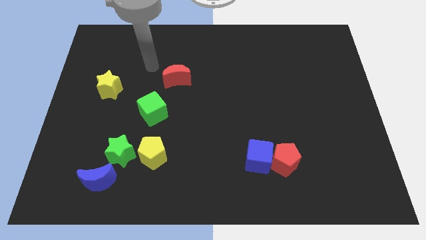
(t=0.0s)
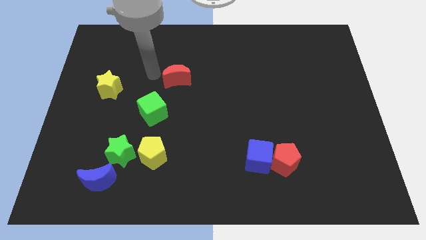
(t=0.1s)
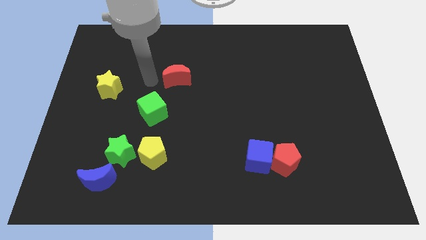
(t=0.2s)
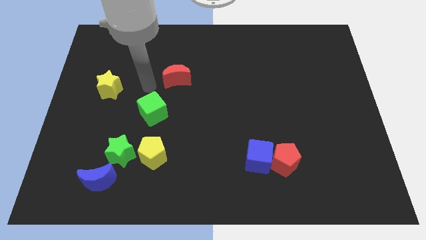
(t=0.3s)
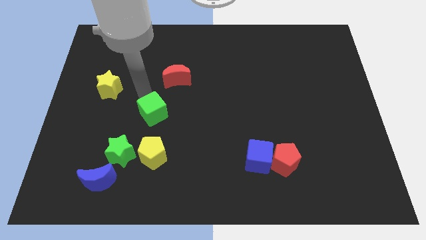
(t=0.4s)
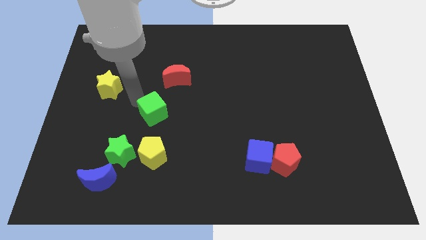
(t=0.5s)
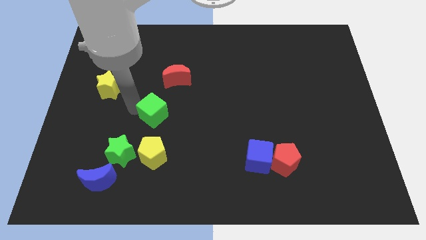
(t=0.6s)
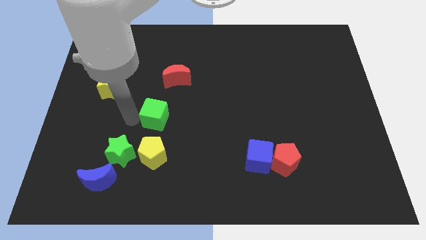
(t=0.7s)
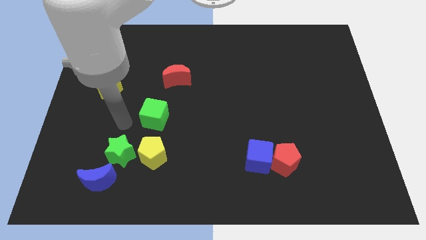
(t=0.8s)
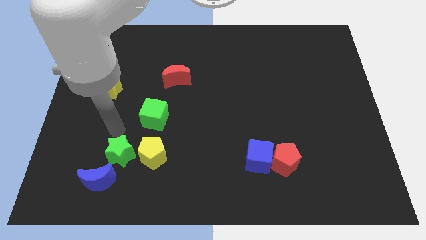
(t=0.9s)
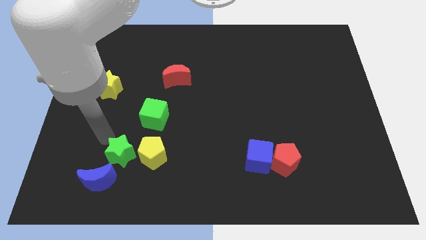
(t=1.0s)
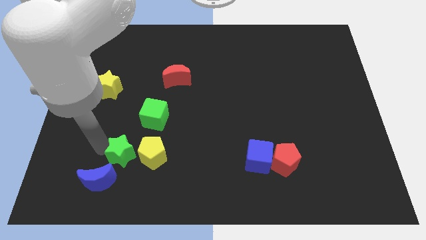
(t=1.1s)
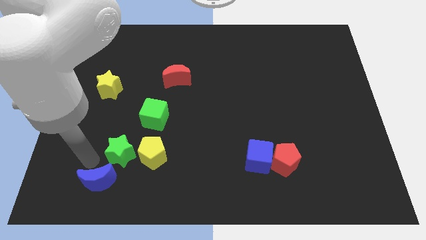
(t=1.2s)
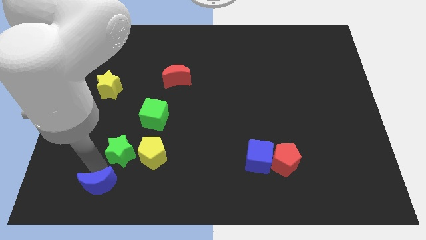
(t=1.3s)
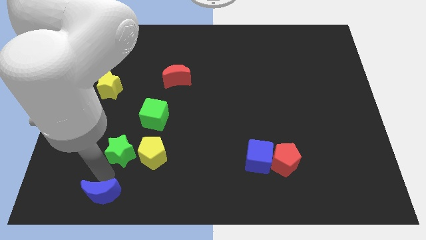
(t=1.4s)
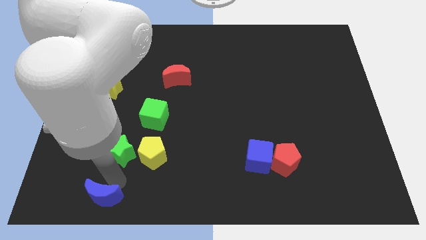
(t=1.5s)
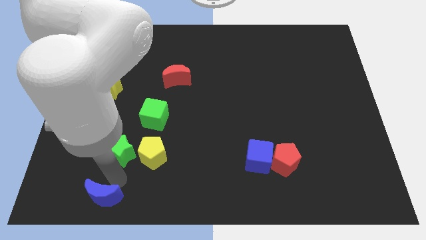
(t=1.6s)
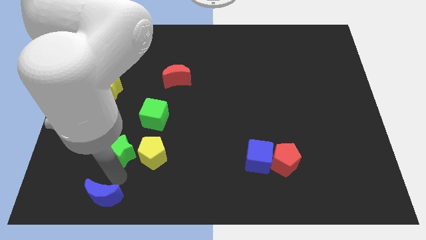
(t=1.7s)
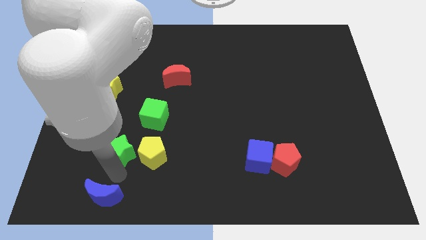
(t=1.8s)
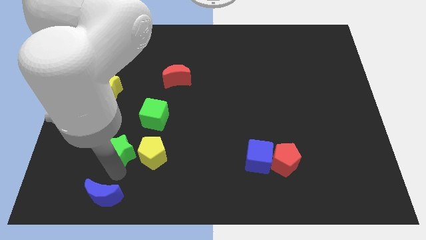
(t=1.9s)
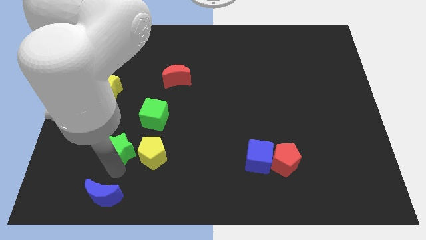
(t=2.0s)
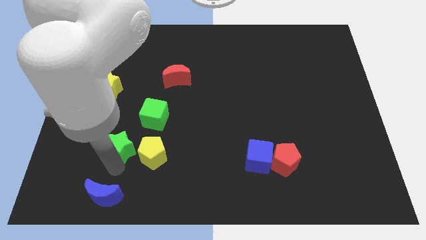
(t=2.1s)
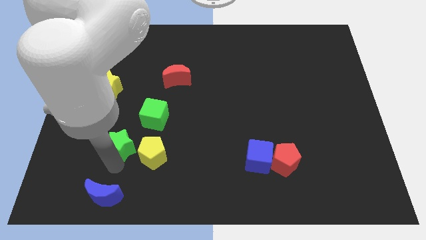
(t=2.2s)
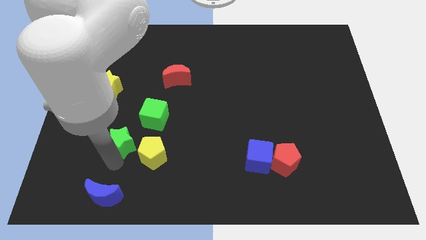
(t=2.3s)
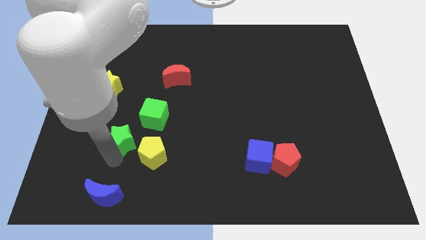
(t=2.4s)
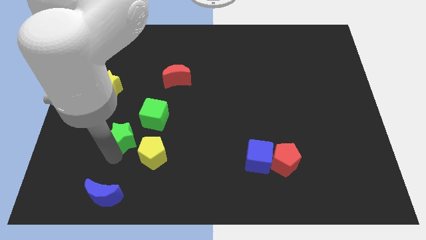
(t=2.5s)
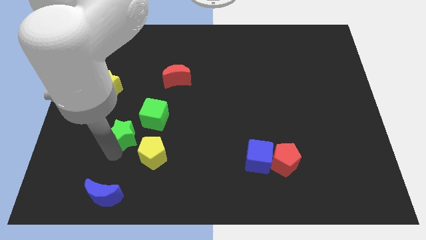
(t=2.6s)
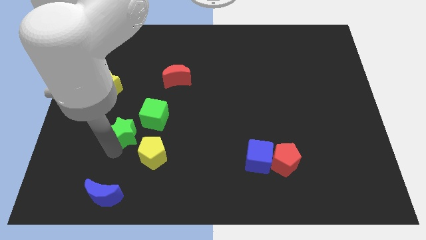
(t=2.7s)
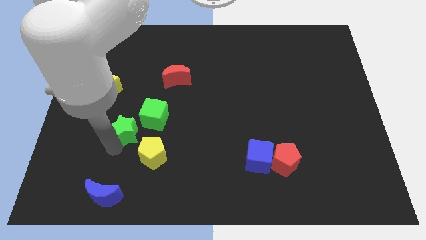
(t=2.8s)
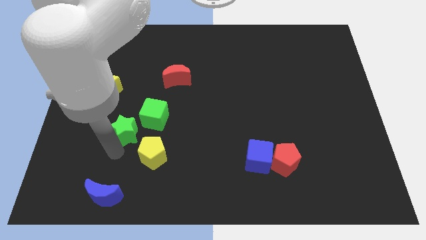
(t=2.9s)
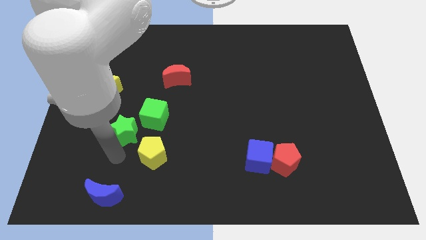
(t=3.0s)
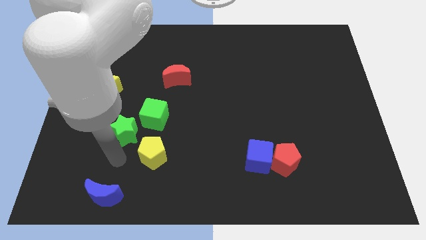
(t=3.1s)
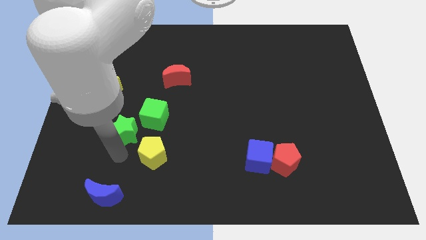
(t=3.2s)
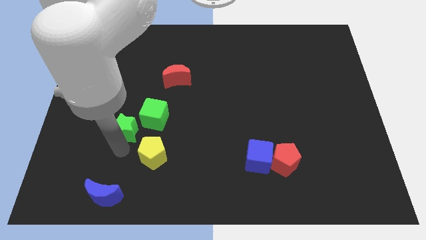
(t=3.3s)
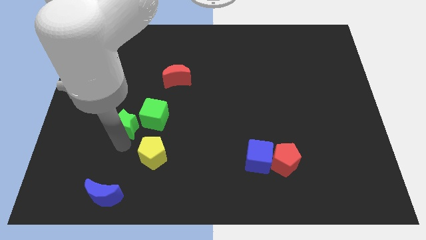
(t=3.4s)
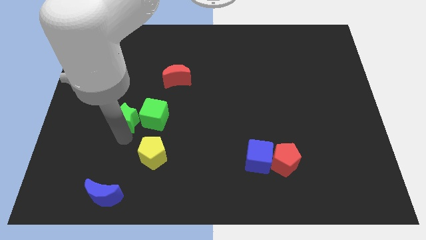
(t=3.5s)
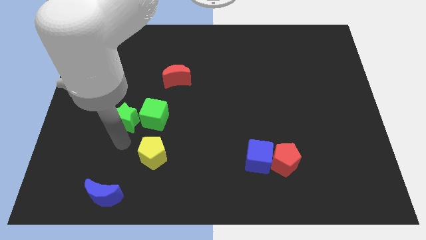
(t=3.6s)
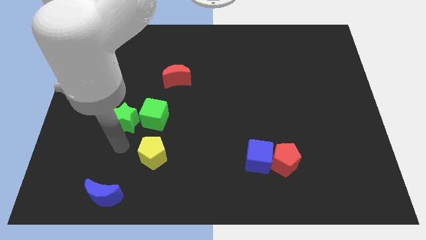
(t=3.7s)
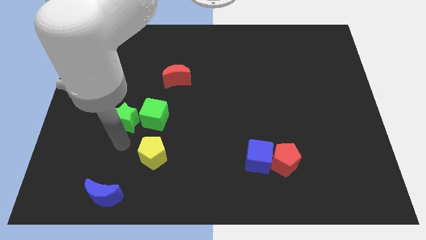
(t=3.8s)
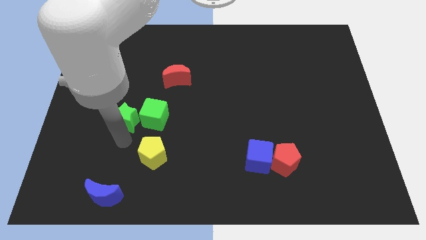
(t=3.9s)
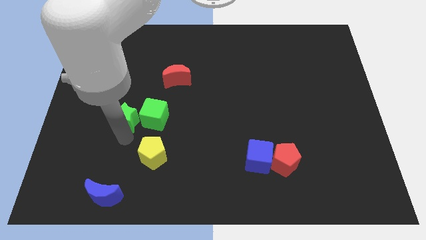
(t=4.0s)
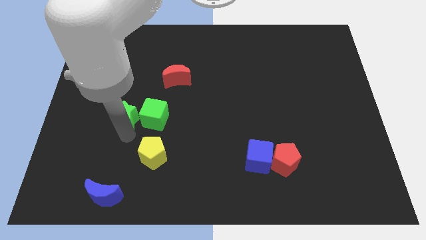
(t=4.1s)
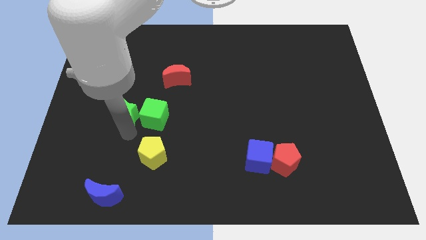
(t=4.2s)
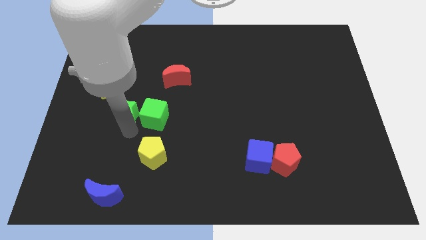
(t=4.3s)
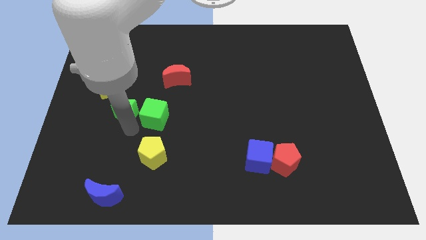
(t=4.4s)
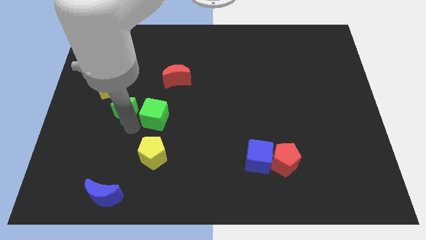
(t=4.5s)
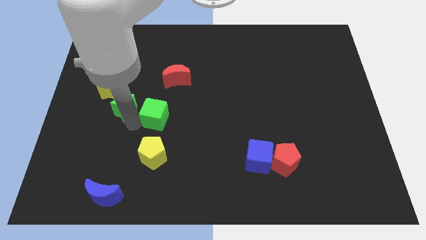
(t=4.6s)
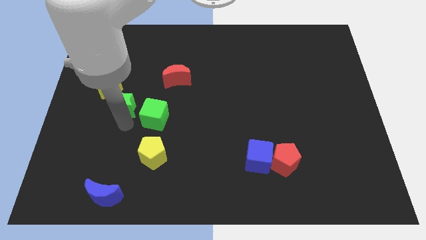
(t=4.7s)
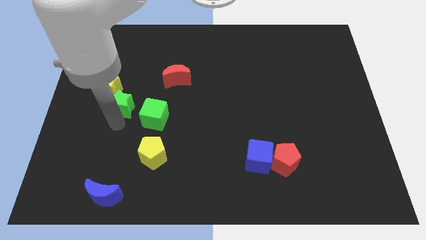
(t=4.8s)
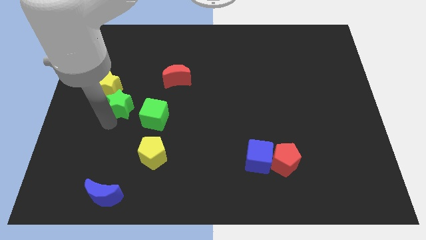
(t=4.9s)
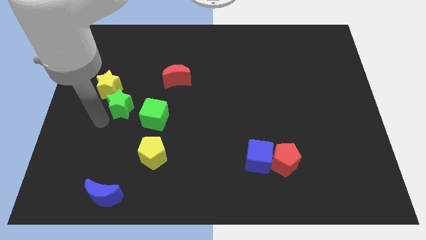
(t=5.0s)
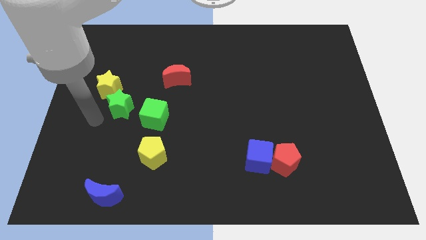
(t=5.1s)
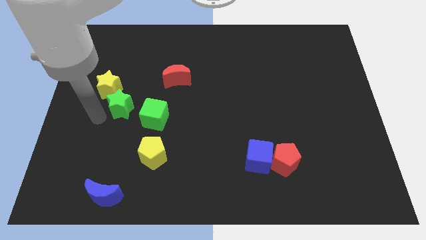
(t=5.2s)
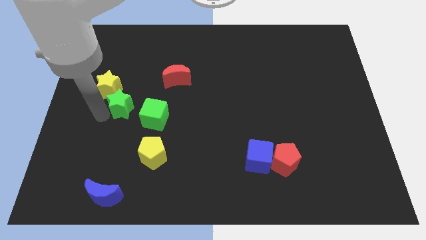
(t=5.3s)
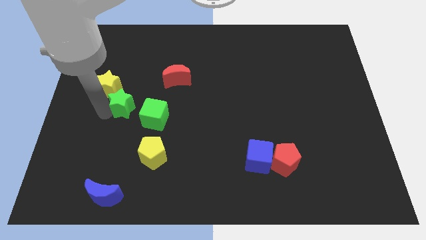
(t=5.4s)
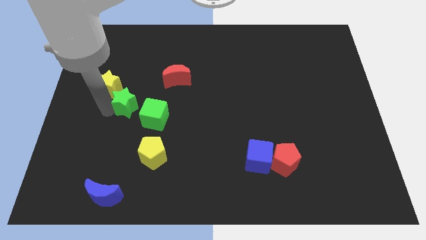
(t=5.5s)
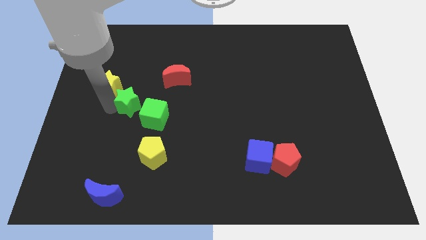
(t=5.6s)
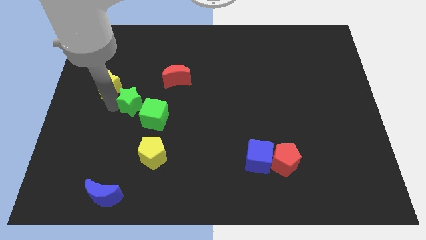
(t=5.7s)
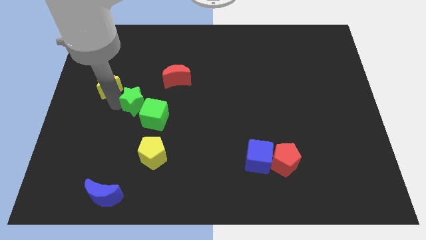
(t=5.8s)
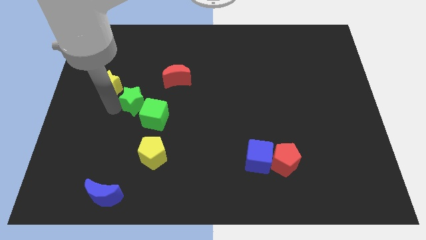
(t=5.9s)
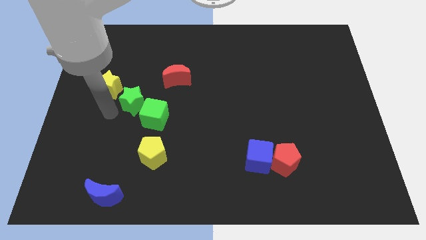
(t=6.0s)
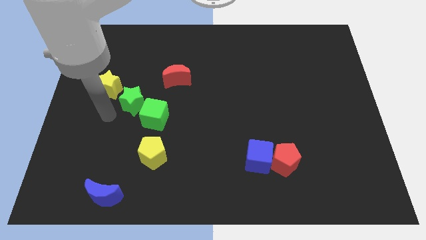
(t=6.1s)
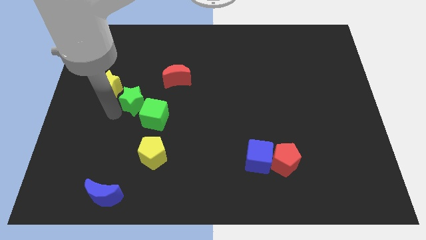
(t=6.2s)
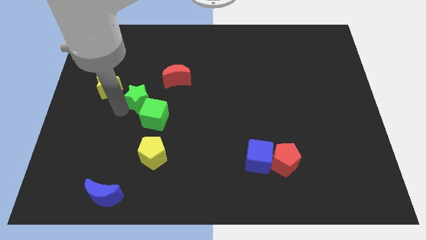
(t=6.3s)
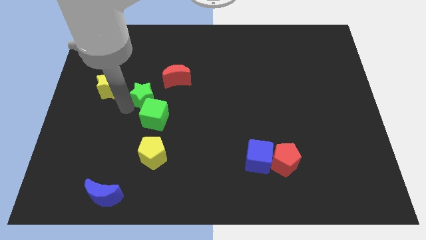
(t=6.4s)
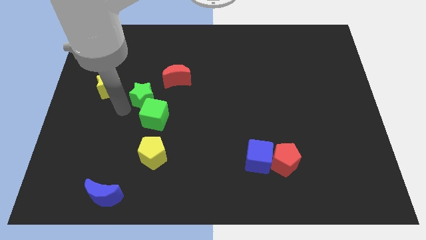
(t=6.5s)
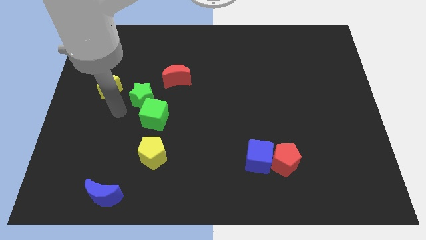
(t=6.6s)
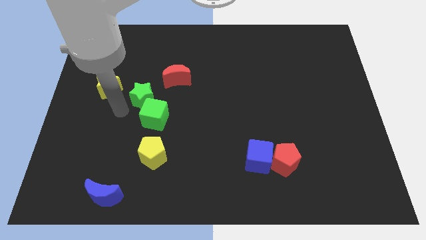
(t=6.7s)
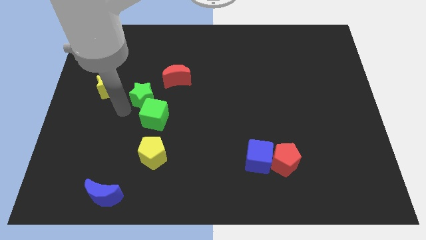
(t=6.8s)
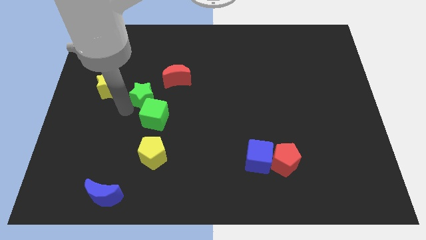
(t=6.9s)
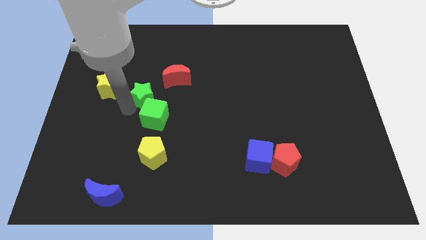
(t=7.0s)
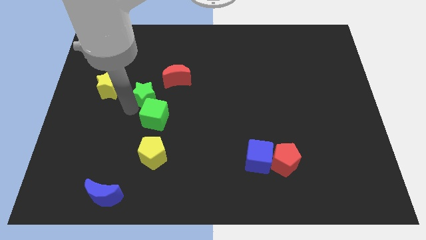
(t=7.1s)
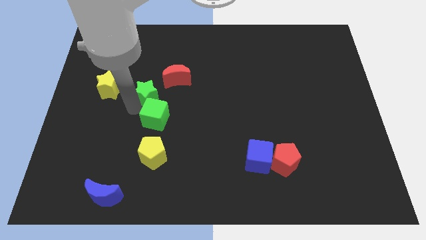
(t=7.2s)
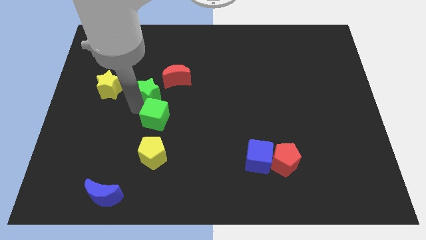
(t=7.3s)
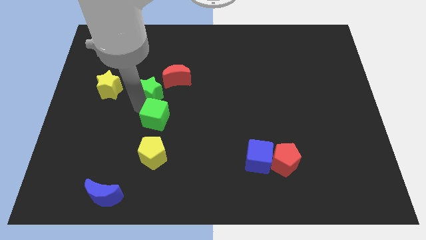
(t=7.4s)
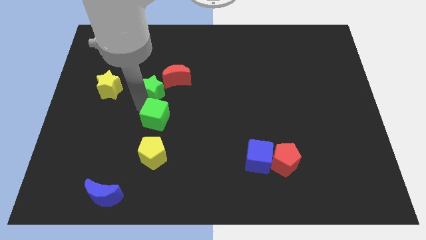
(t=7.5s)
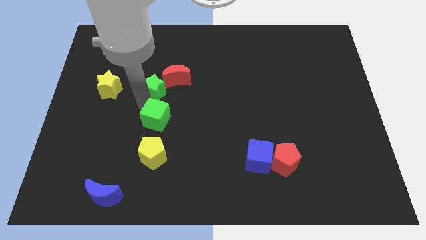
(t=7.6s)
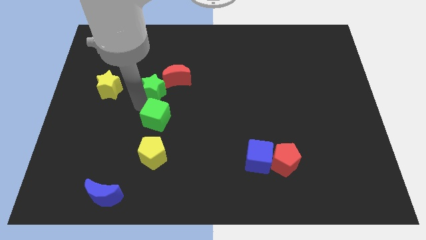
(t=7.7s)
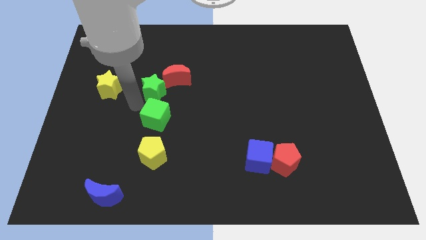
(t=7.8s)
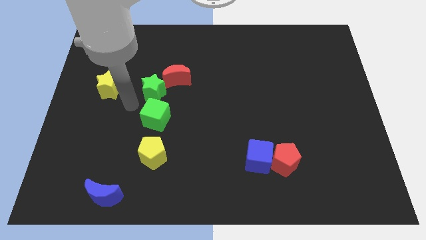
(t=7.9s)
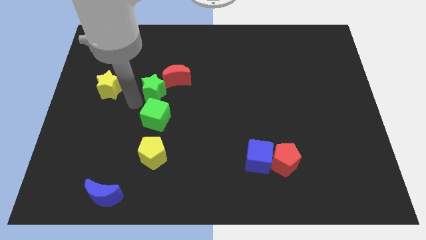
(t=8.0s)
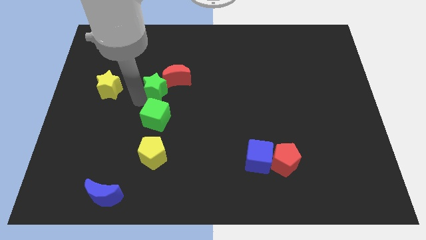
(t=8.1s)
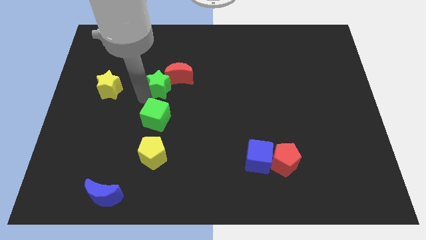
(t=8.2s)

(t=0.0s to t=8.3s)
slide the green star towards the red moon
